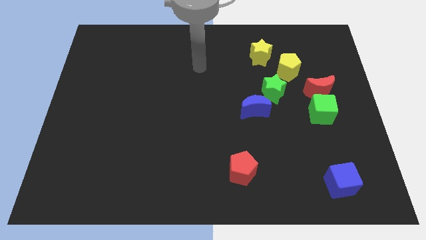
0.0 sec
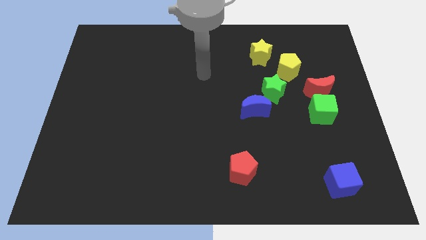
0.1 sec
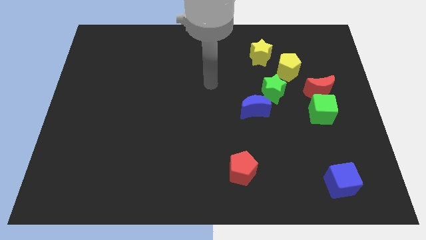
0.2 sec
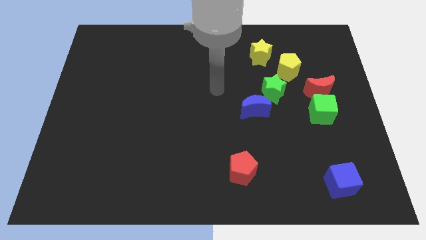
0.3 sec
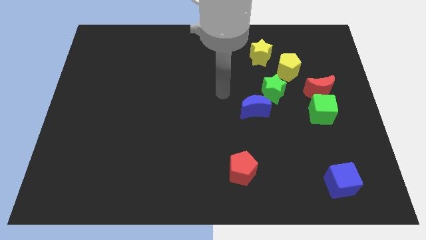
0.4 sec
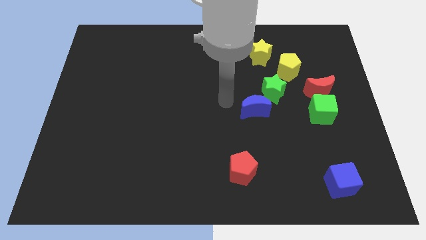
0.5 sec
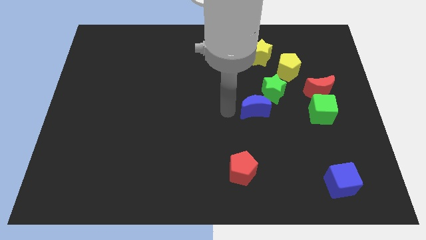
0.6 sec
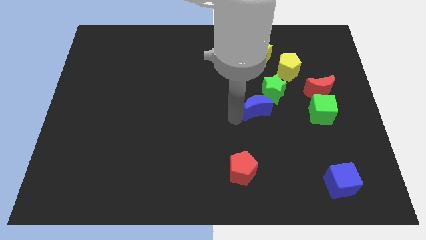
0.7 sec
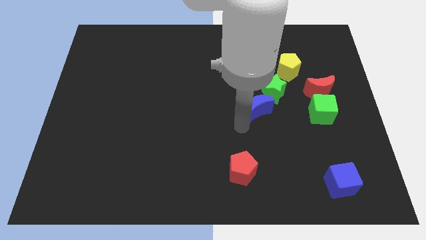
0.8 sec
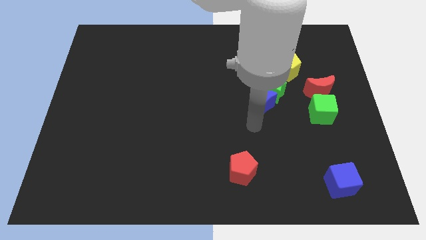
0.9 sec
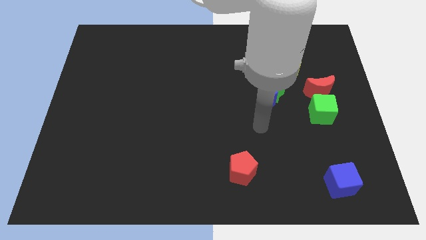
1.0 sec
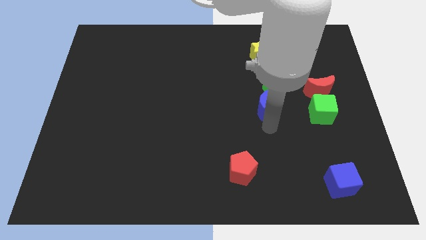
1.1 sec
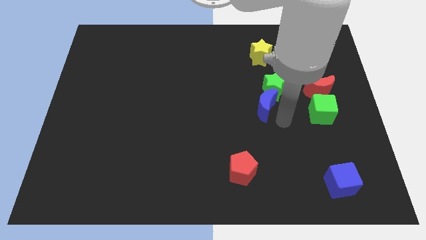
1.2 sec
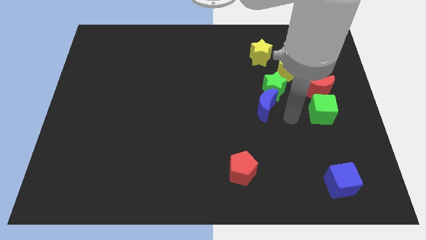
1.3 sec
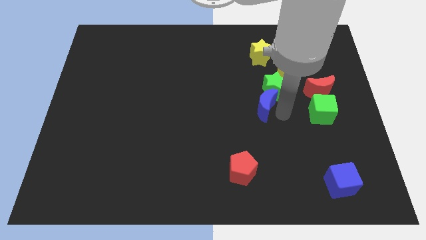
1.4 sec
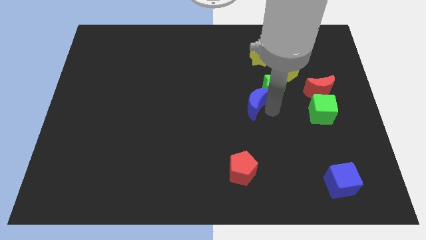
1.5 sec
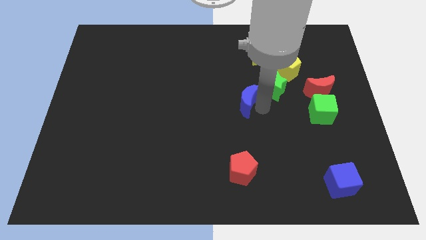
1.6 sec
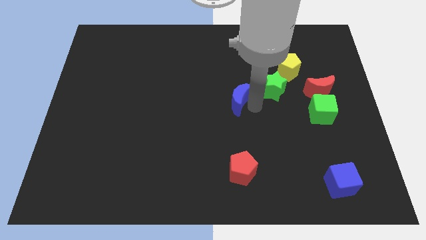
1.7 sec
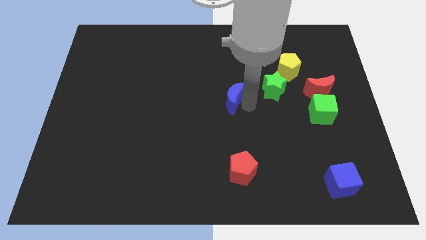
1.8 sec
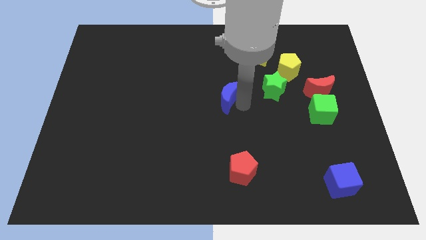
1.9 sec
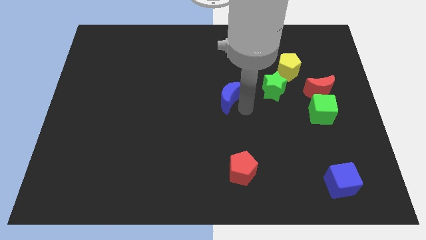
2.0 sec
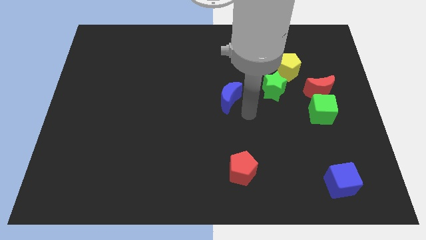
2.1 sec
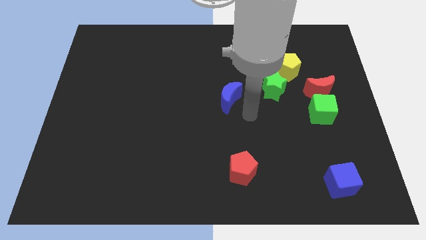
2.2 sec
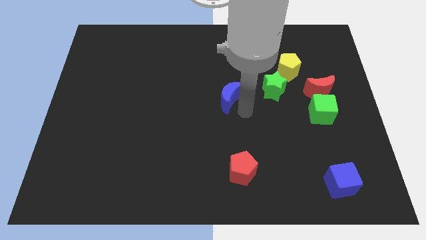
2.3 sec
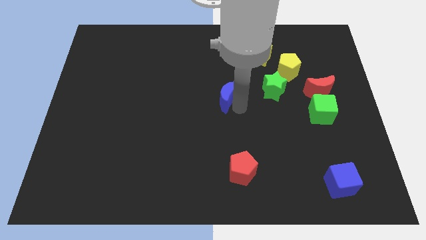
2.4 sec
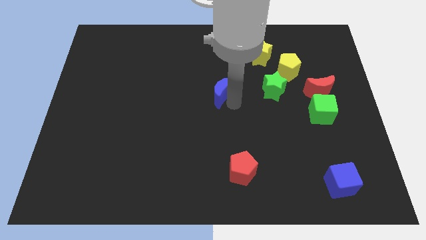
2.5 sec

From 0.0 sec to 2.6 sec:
slide the blue moon diagonally up and left a bit

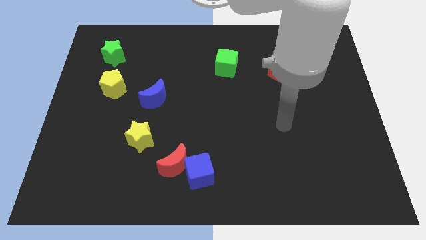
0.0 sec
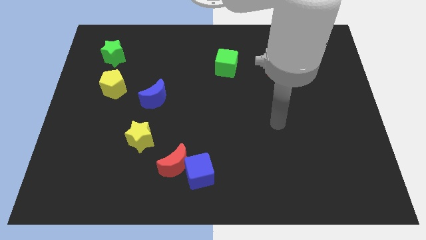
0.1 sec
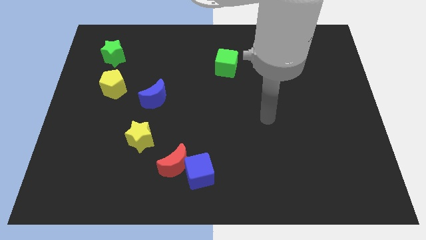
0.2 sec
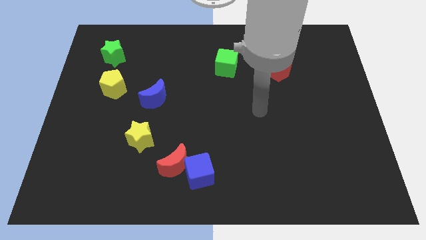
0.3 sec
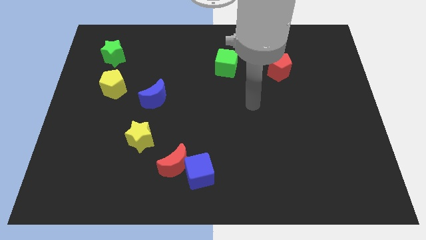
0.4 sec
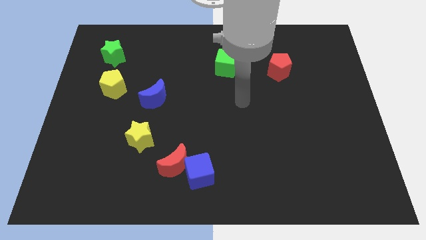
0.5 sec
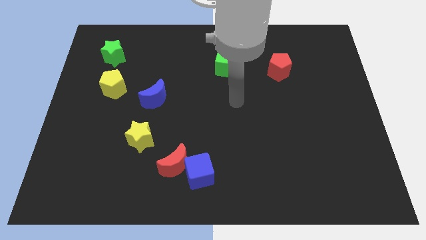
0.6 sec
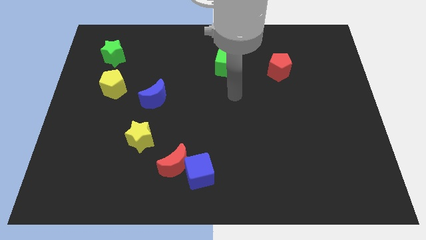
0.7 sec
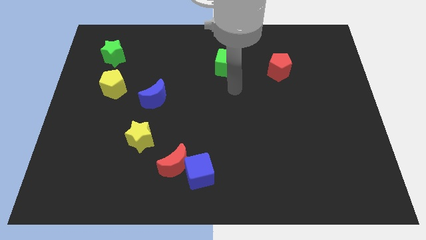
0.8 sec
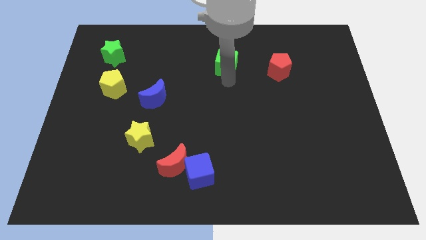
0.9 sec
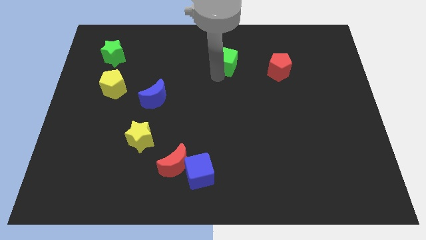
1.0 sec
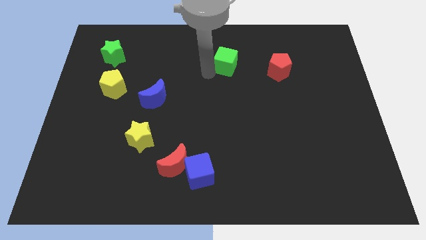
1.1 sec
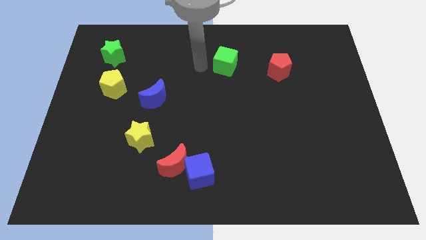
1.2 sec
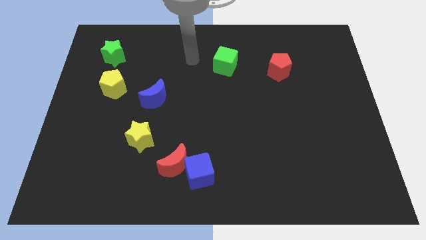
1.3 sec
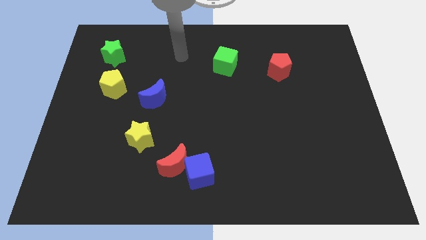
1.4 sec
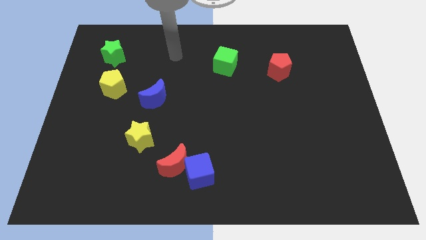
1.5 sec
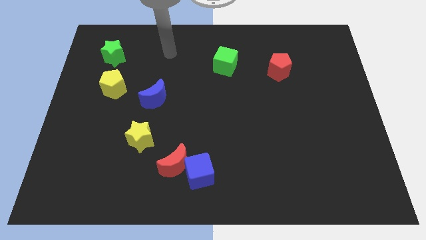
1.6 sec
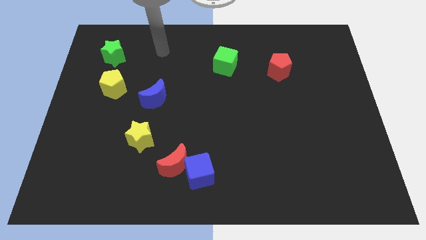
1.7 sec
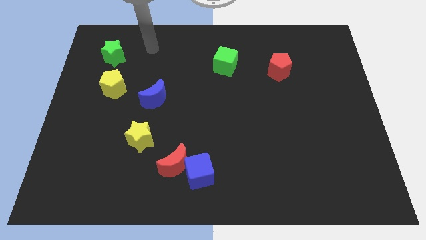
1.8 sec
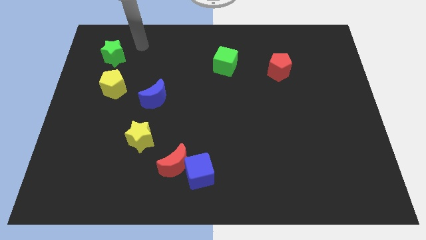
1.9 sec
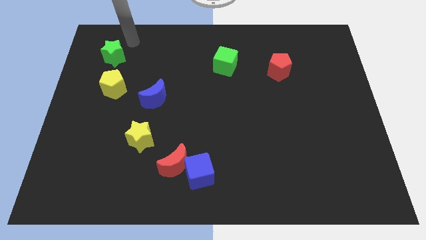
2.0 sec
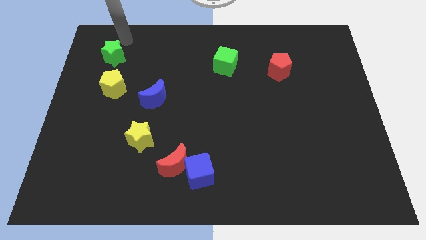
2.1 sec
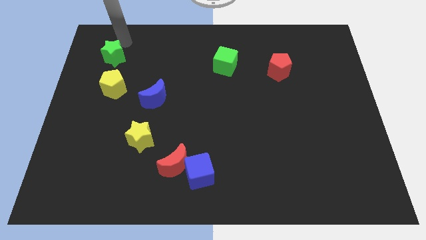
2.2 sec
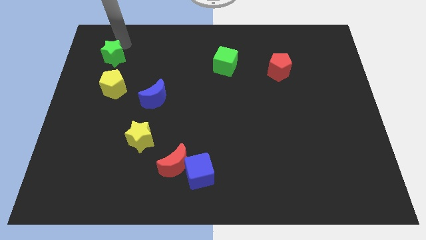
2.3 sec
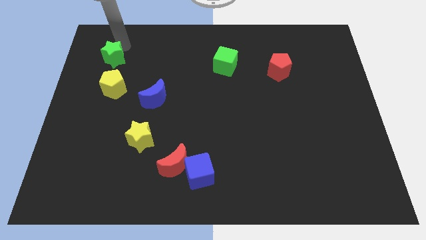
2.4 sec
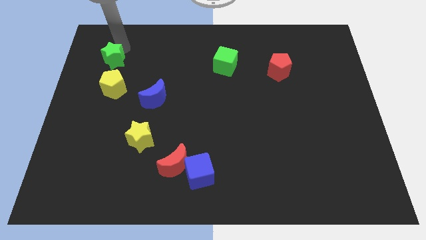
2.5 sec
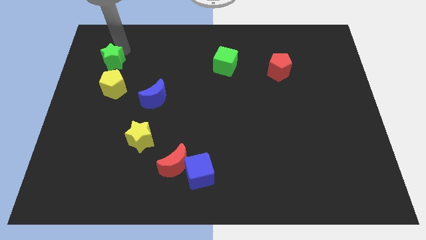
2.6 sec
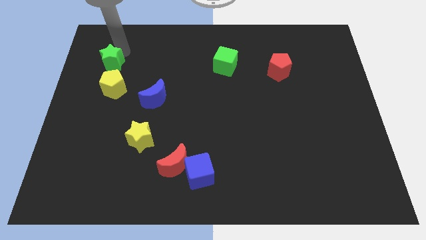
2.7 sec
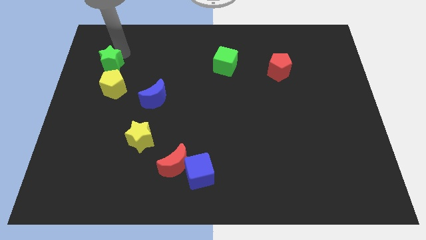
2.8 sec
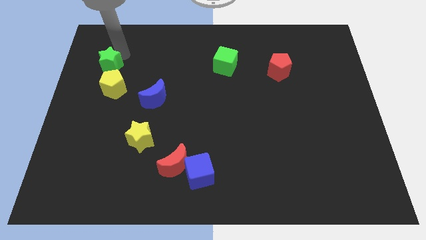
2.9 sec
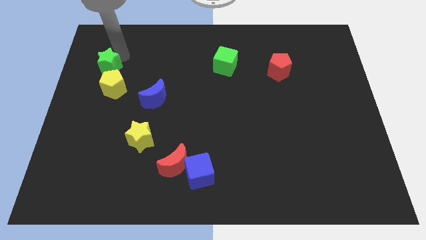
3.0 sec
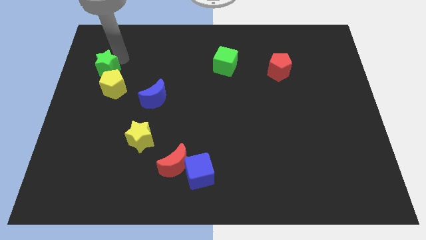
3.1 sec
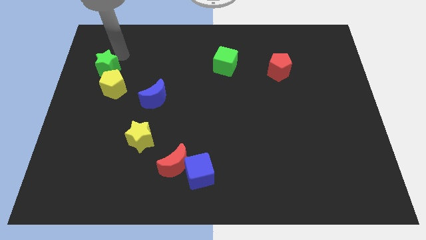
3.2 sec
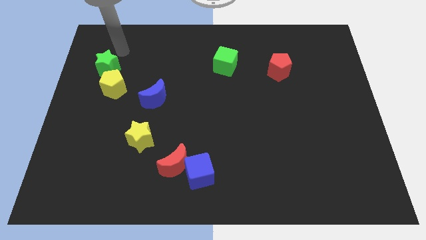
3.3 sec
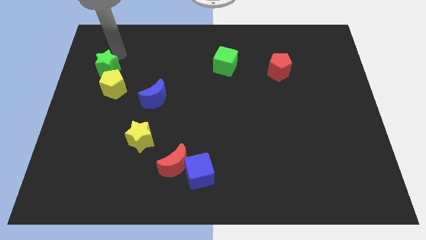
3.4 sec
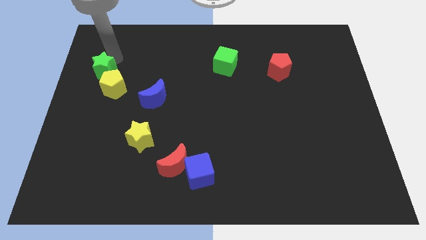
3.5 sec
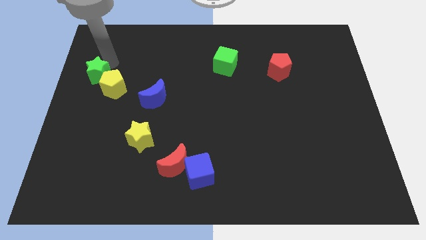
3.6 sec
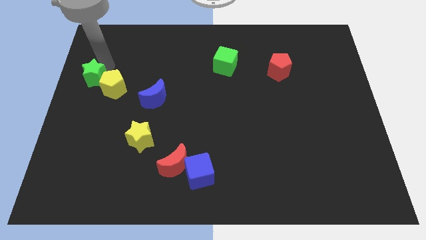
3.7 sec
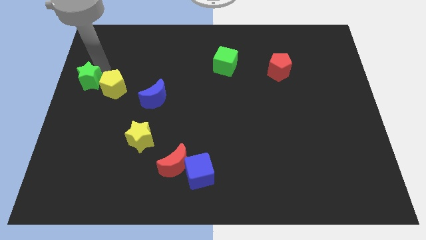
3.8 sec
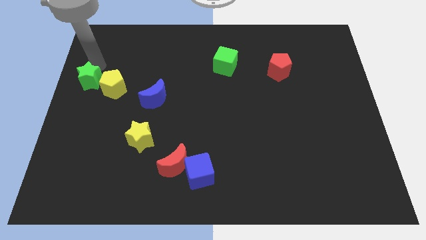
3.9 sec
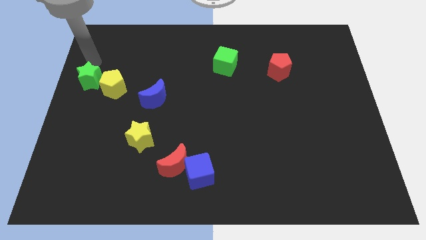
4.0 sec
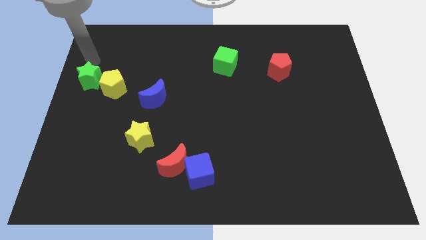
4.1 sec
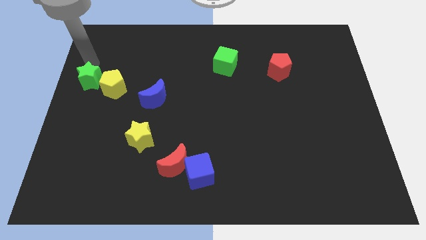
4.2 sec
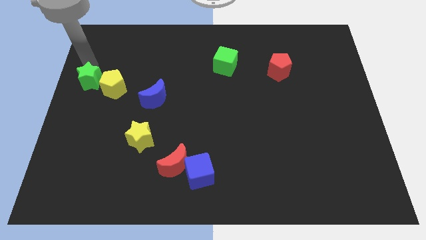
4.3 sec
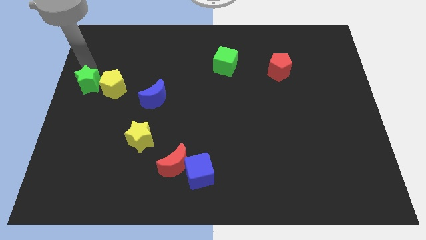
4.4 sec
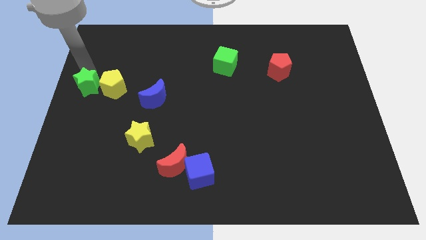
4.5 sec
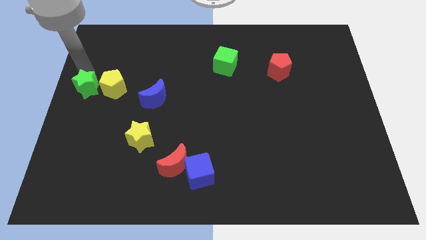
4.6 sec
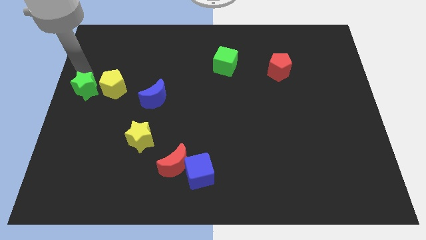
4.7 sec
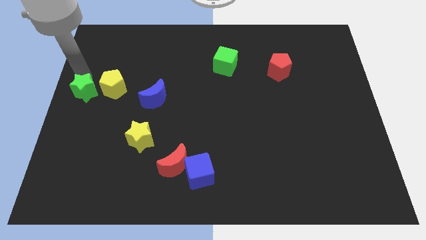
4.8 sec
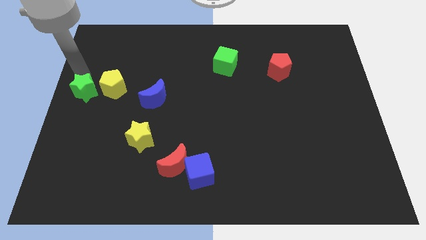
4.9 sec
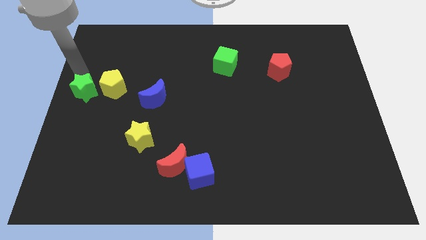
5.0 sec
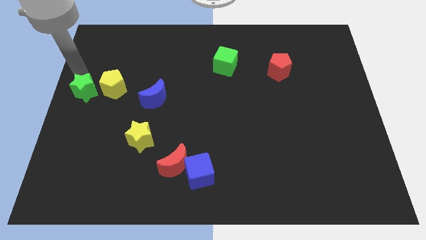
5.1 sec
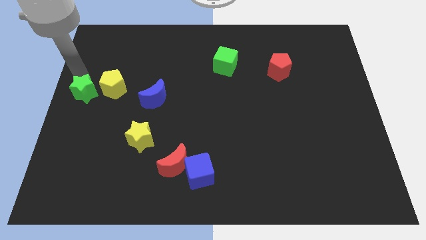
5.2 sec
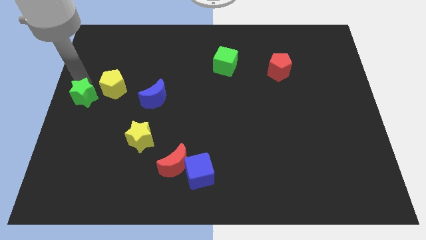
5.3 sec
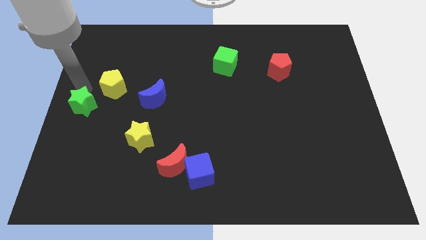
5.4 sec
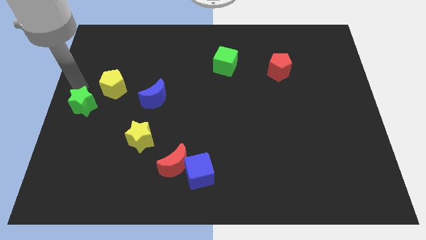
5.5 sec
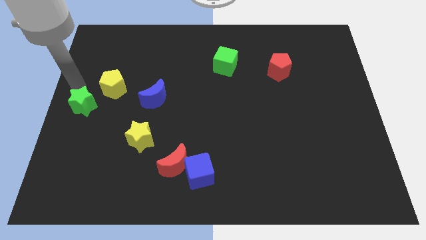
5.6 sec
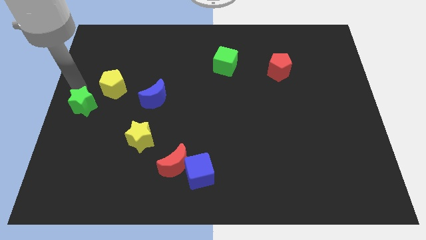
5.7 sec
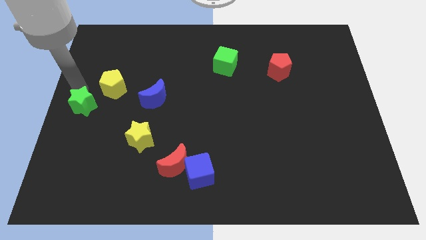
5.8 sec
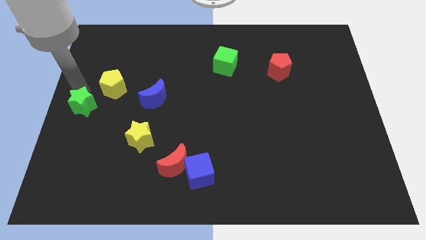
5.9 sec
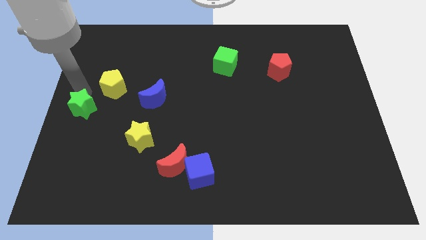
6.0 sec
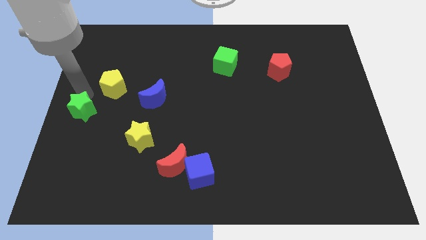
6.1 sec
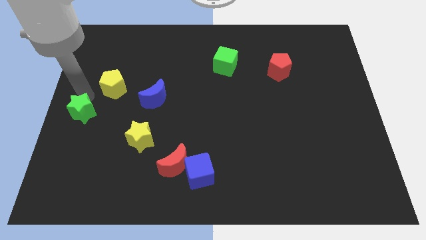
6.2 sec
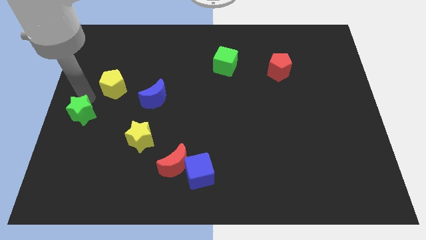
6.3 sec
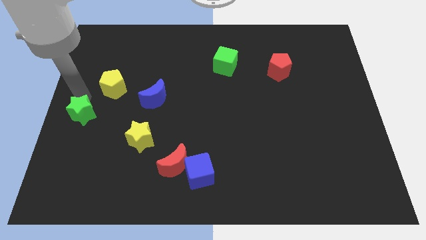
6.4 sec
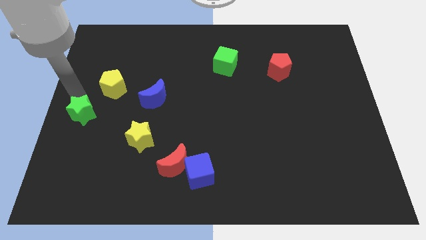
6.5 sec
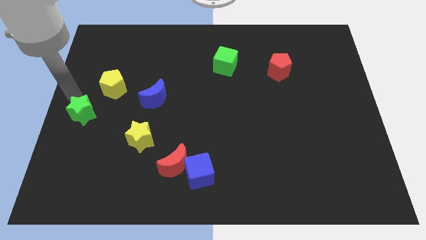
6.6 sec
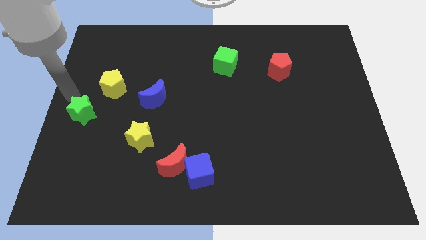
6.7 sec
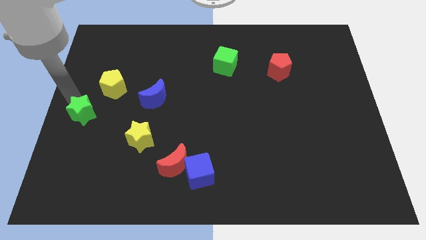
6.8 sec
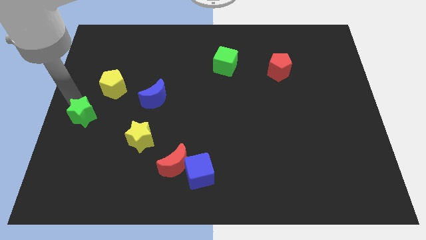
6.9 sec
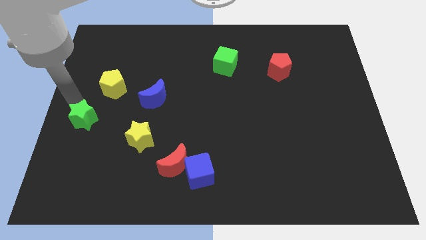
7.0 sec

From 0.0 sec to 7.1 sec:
push the green star down
